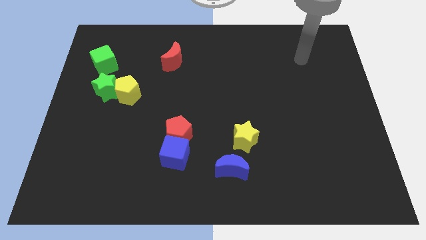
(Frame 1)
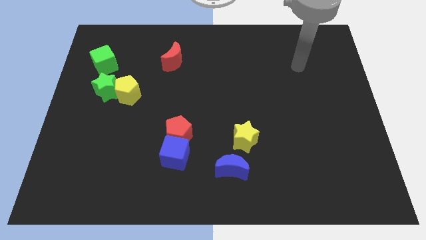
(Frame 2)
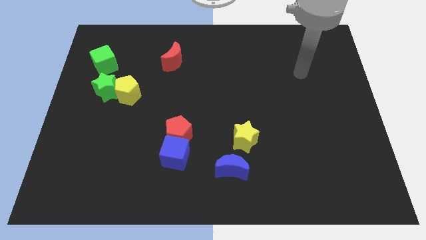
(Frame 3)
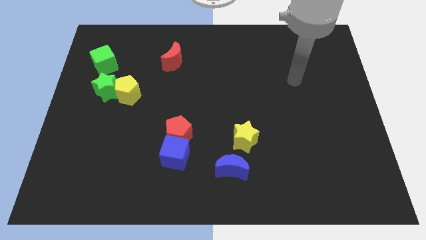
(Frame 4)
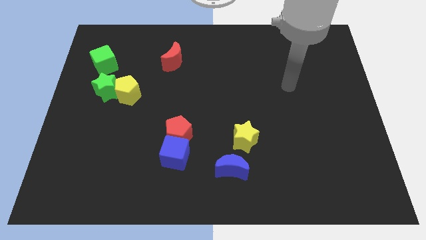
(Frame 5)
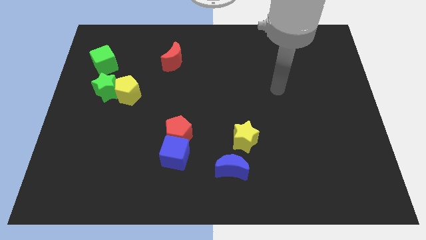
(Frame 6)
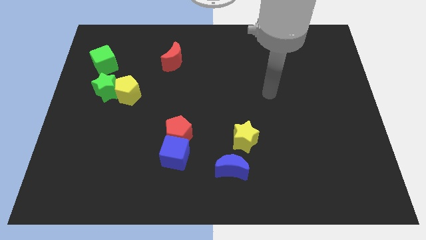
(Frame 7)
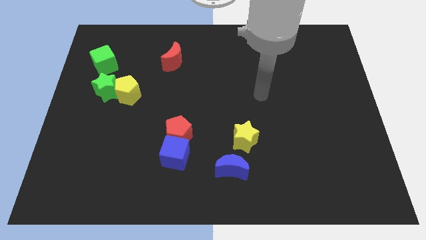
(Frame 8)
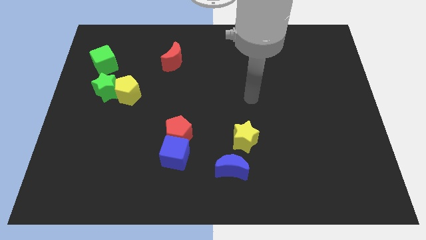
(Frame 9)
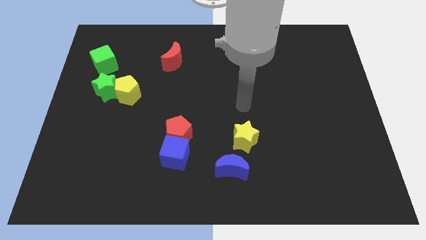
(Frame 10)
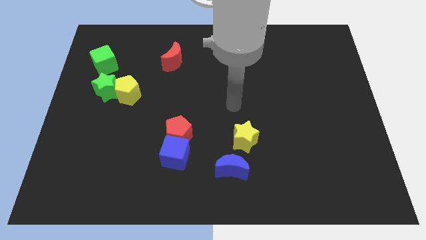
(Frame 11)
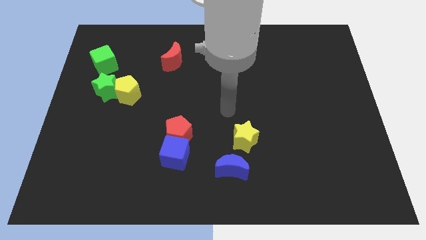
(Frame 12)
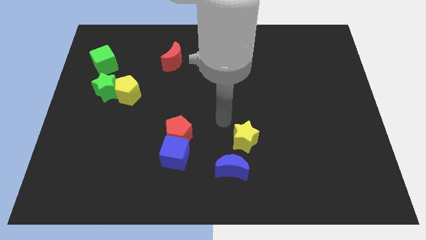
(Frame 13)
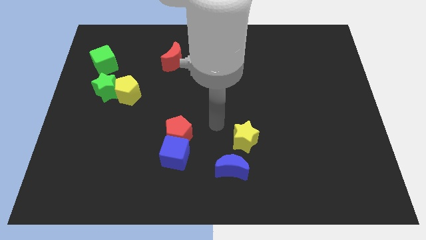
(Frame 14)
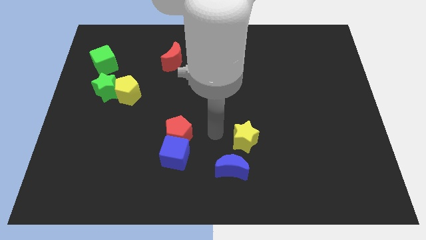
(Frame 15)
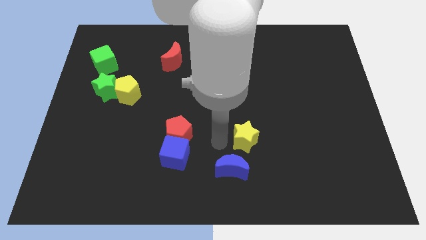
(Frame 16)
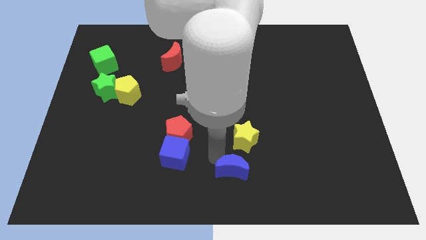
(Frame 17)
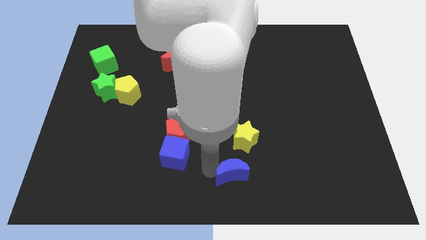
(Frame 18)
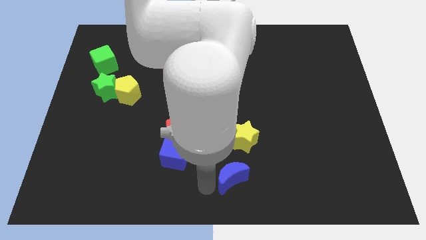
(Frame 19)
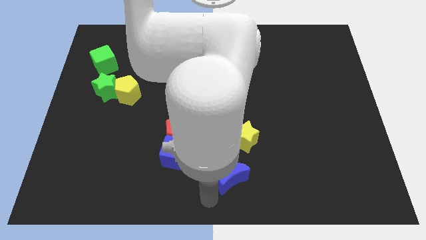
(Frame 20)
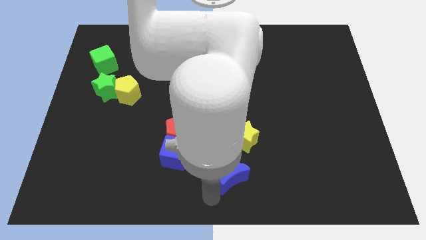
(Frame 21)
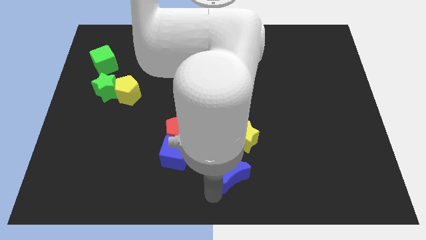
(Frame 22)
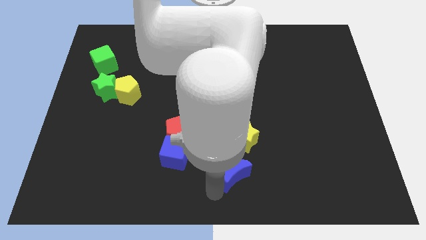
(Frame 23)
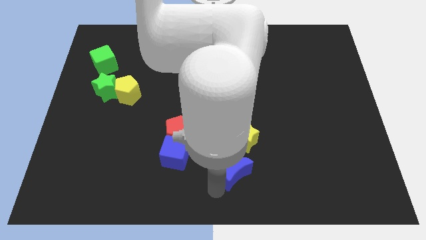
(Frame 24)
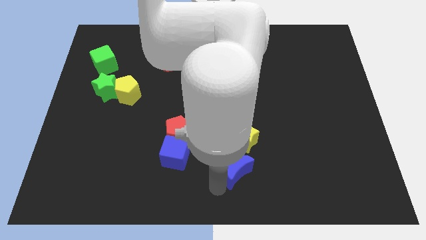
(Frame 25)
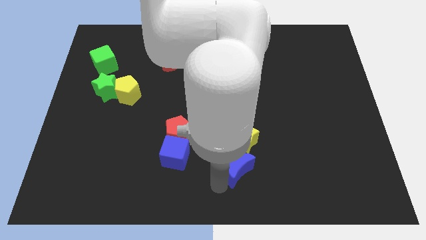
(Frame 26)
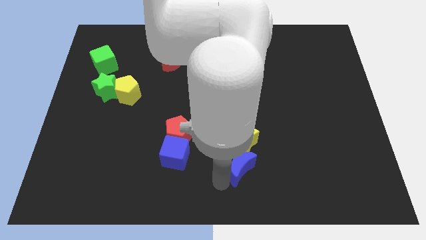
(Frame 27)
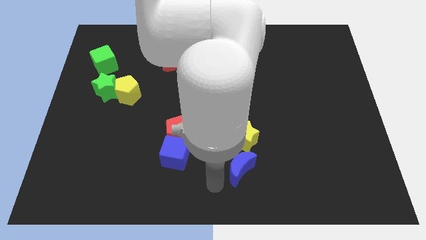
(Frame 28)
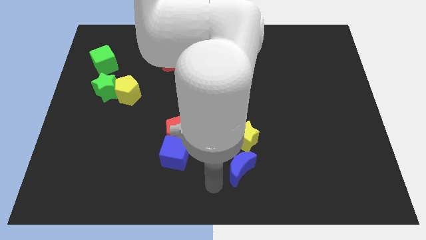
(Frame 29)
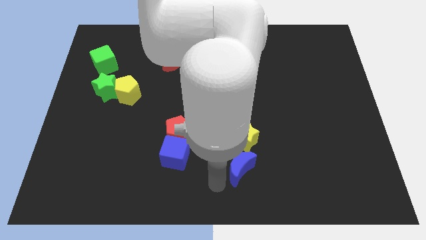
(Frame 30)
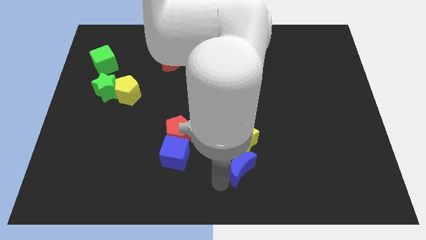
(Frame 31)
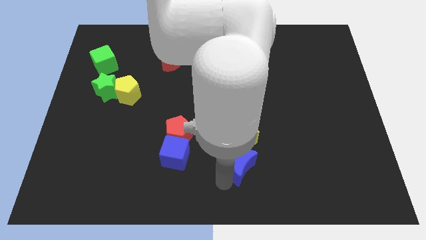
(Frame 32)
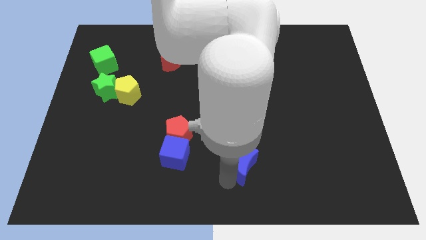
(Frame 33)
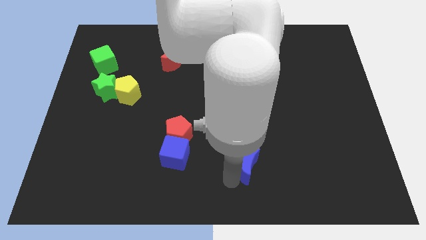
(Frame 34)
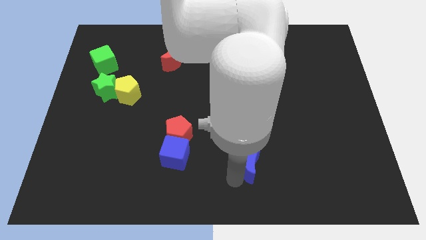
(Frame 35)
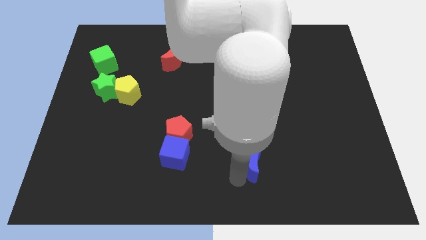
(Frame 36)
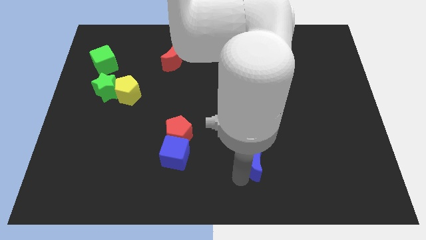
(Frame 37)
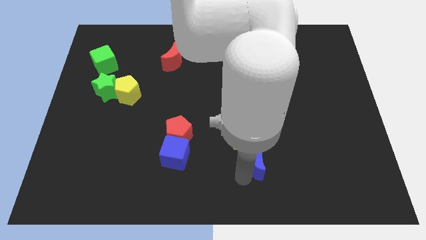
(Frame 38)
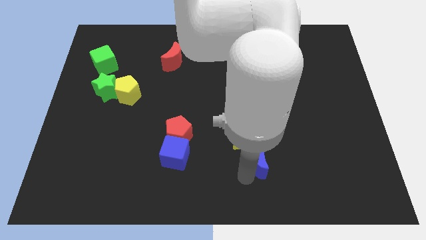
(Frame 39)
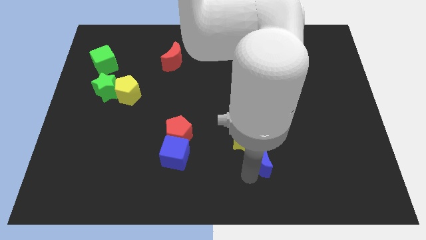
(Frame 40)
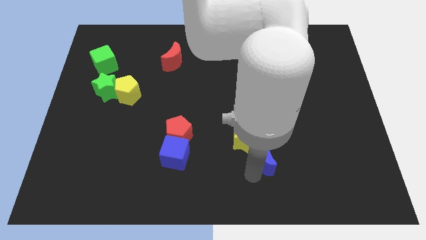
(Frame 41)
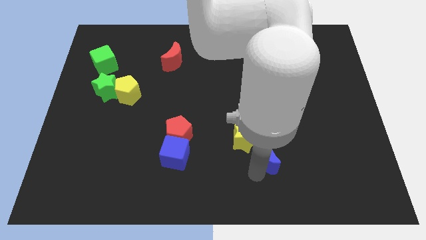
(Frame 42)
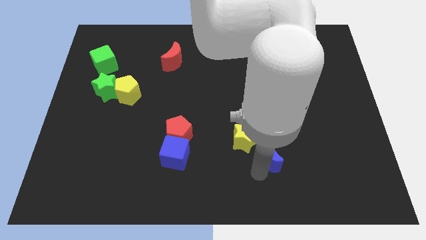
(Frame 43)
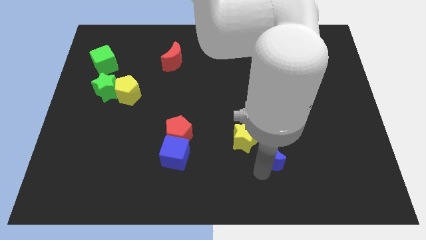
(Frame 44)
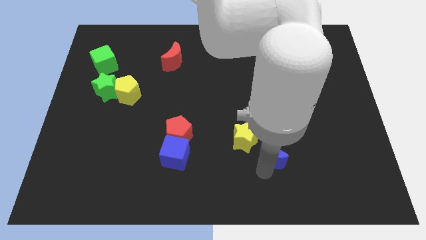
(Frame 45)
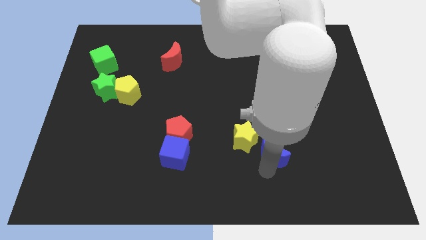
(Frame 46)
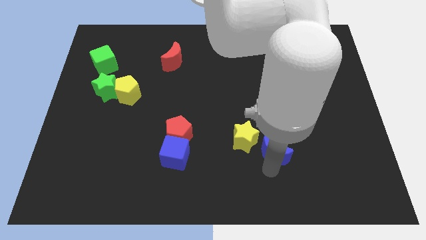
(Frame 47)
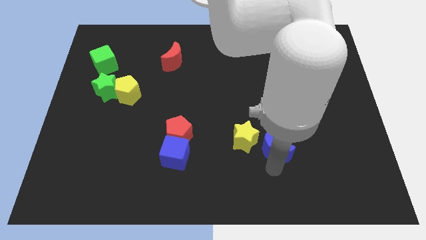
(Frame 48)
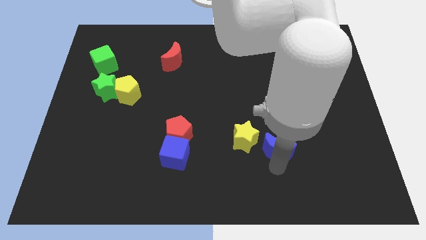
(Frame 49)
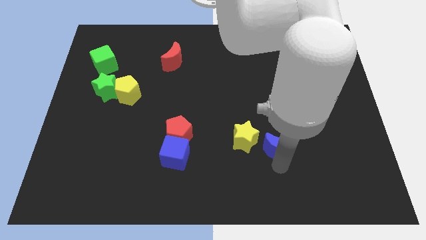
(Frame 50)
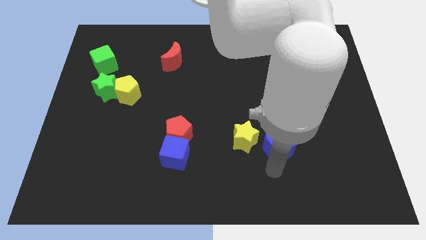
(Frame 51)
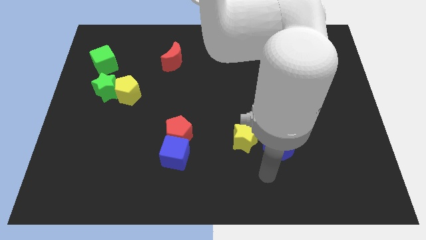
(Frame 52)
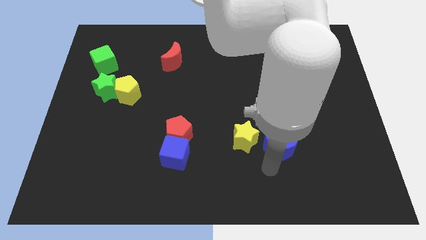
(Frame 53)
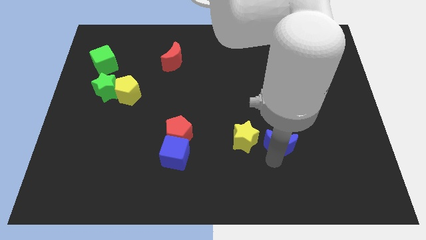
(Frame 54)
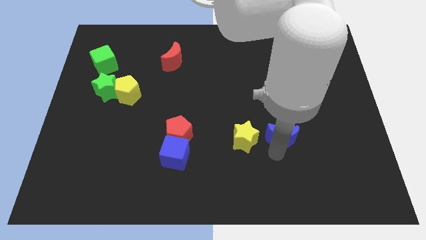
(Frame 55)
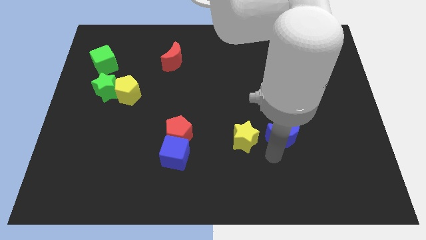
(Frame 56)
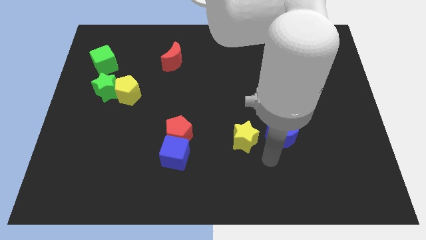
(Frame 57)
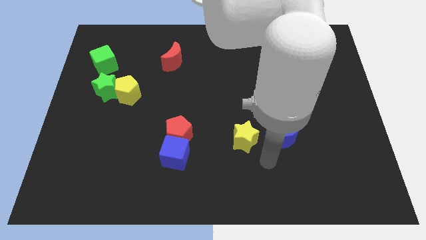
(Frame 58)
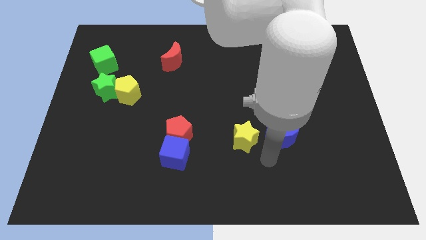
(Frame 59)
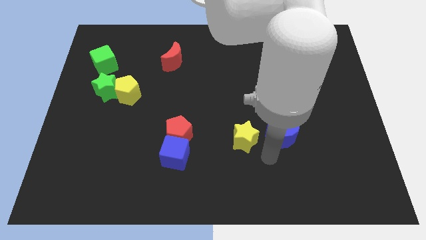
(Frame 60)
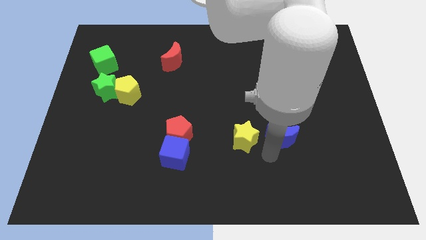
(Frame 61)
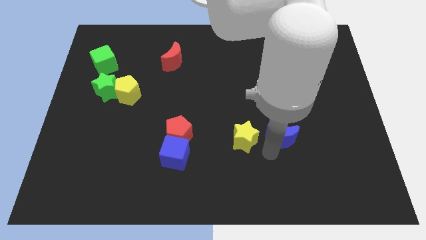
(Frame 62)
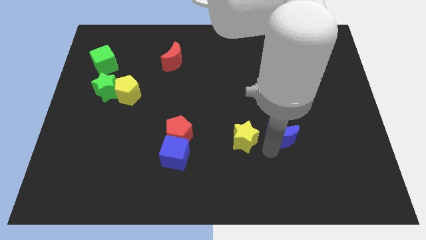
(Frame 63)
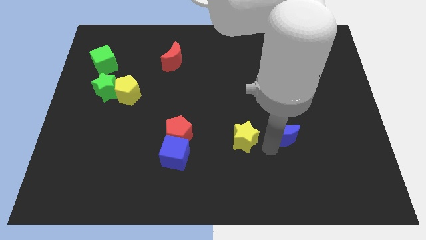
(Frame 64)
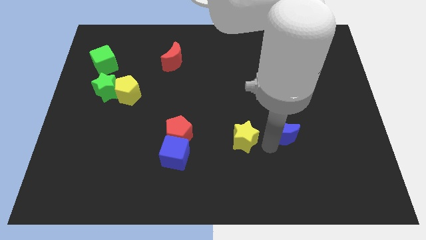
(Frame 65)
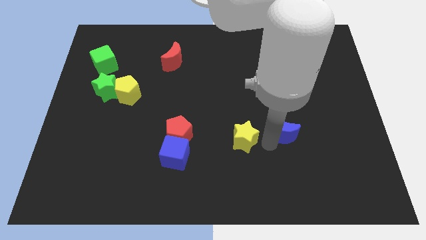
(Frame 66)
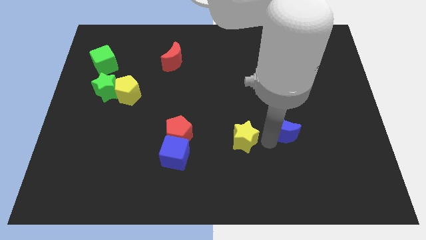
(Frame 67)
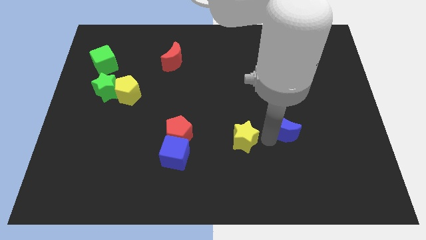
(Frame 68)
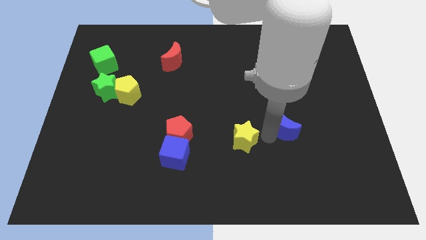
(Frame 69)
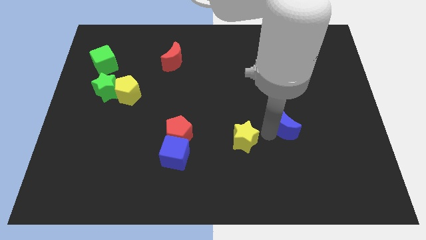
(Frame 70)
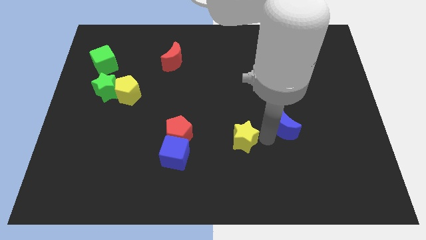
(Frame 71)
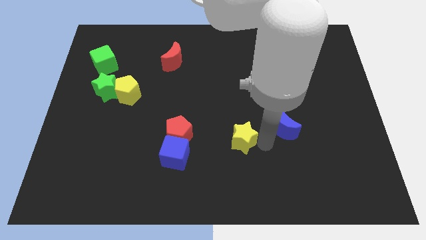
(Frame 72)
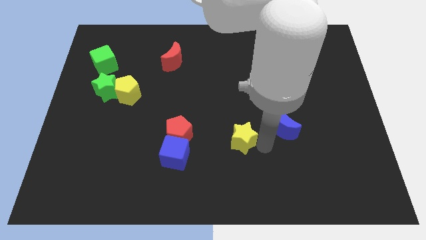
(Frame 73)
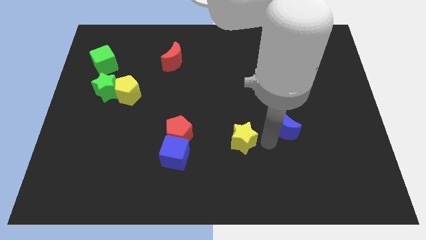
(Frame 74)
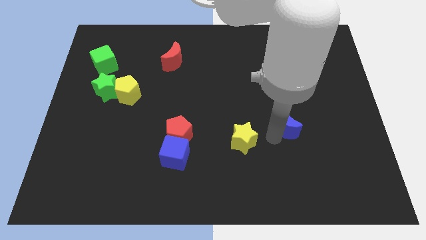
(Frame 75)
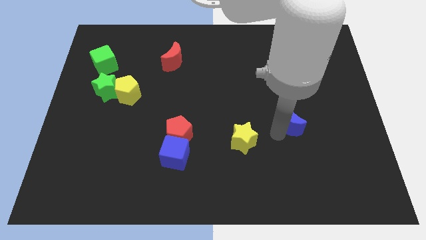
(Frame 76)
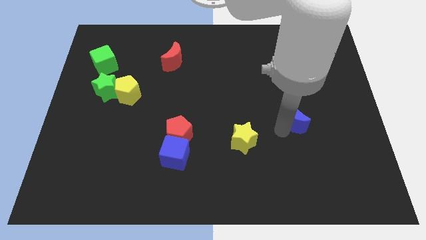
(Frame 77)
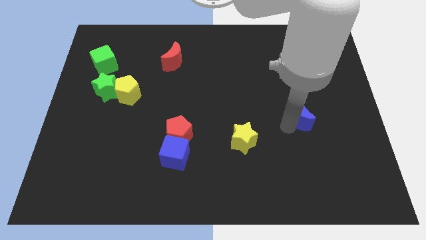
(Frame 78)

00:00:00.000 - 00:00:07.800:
move the blue moon up and then to the right

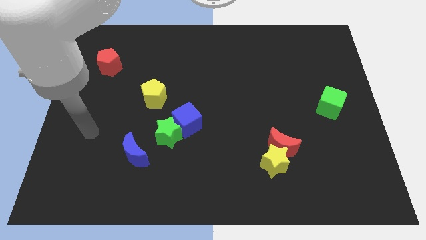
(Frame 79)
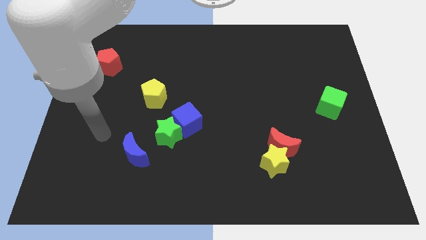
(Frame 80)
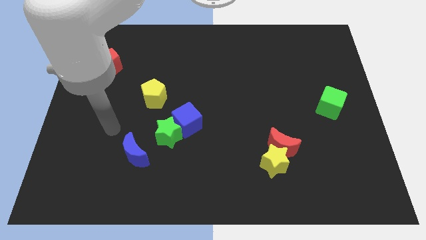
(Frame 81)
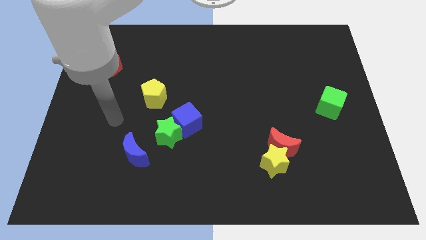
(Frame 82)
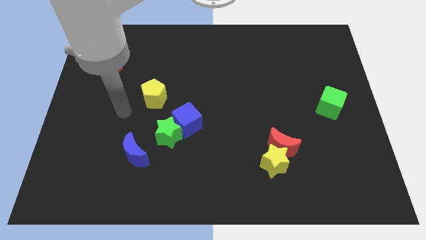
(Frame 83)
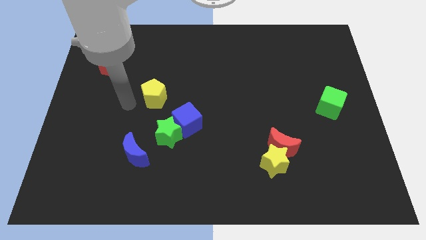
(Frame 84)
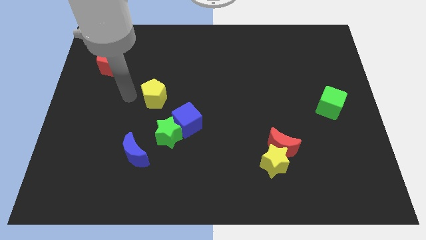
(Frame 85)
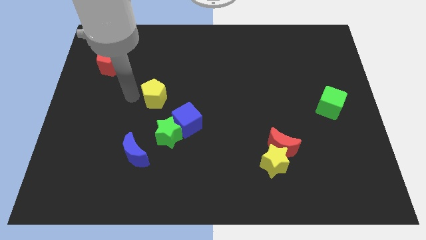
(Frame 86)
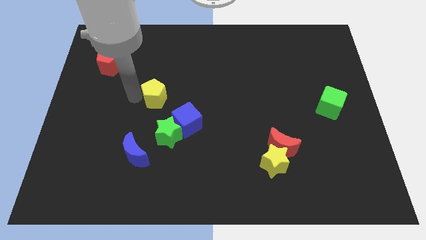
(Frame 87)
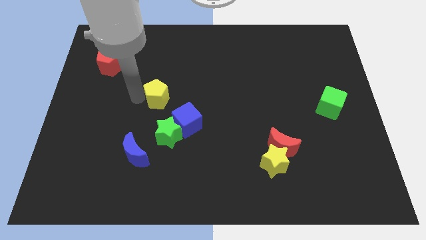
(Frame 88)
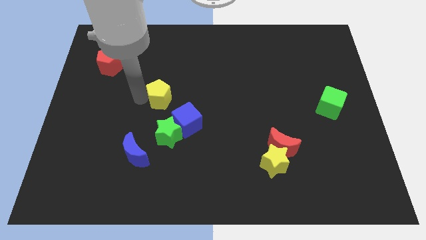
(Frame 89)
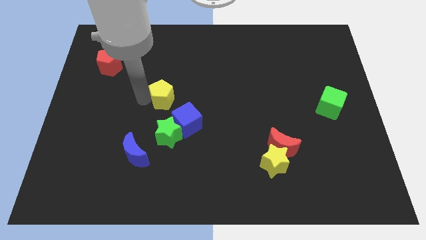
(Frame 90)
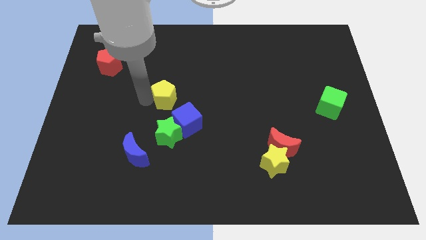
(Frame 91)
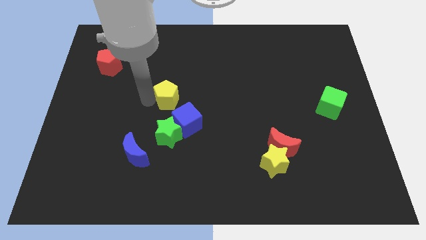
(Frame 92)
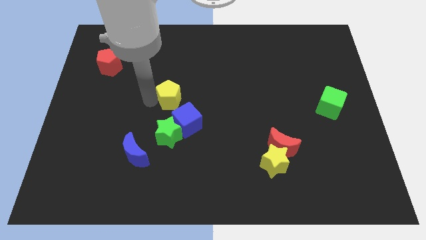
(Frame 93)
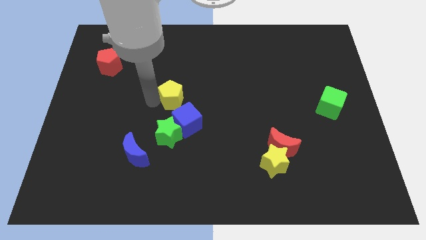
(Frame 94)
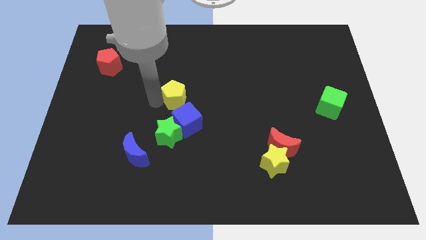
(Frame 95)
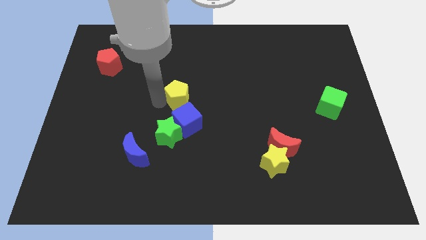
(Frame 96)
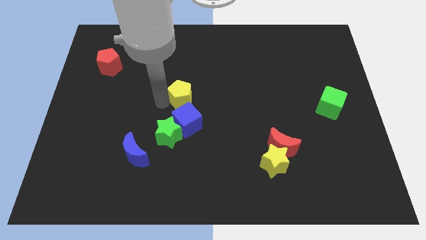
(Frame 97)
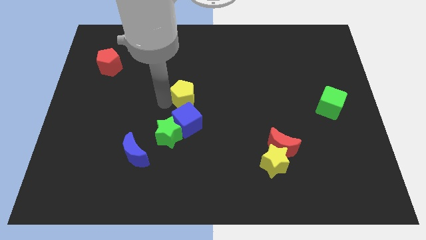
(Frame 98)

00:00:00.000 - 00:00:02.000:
push the yellow pentagon a little right
